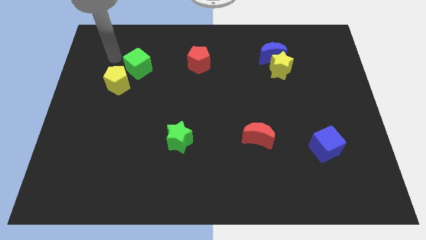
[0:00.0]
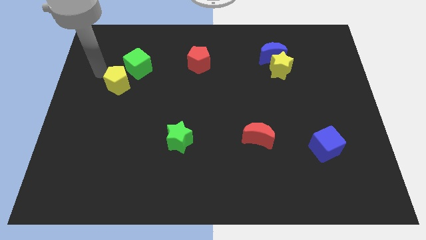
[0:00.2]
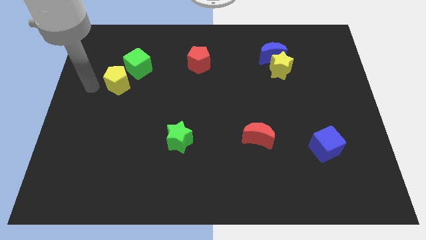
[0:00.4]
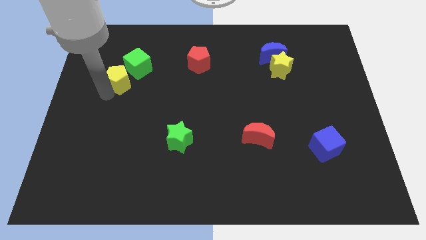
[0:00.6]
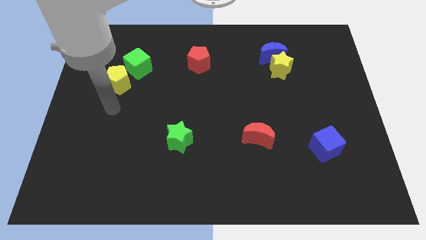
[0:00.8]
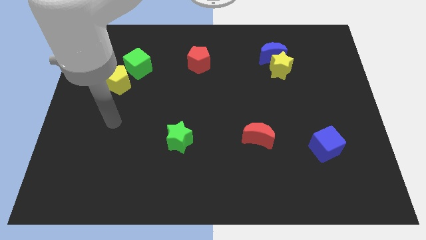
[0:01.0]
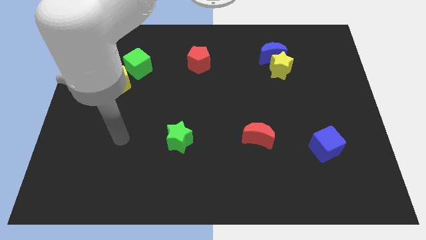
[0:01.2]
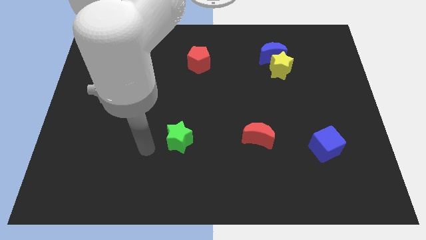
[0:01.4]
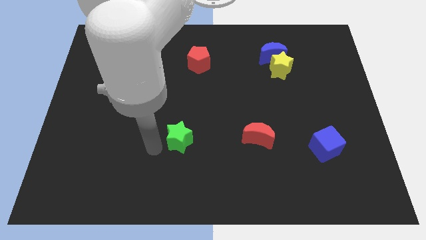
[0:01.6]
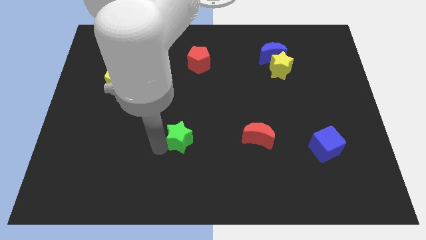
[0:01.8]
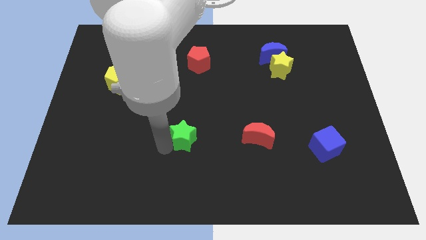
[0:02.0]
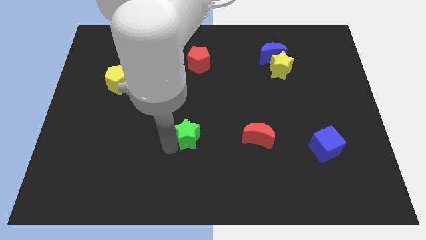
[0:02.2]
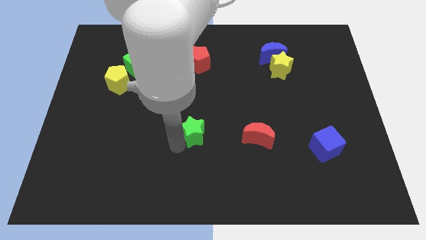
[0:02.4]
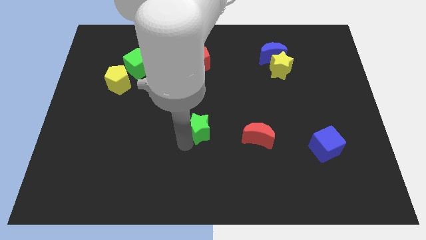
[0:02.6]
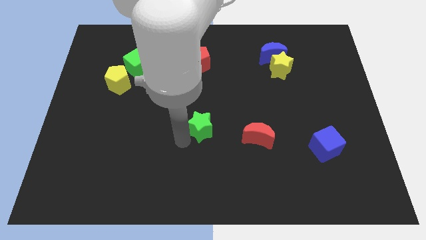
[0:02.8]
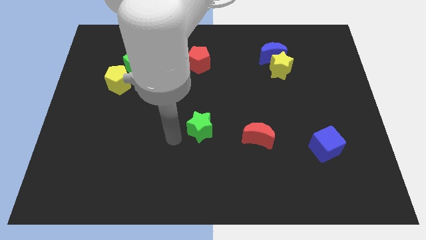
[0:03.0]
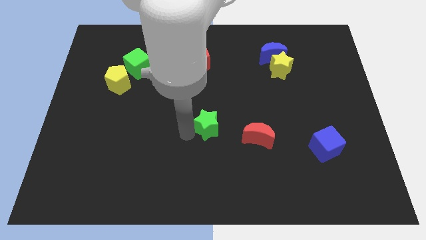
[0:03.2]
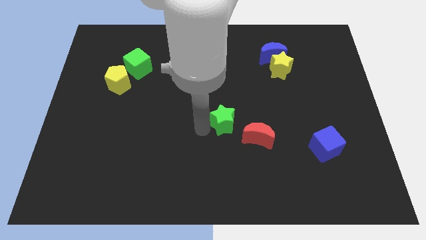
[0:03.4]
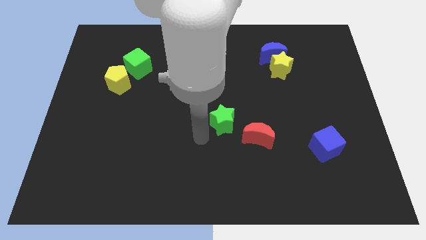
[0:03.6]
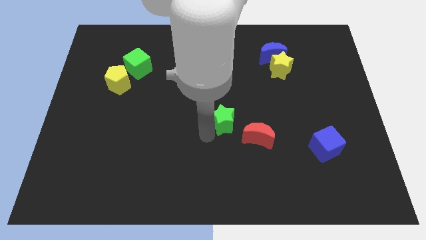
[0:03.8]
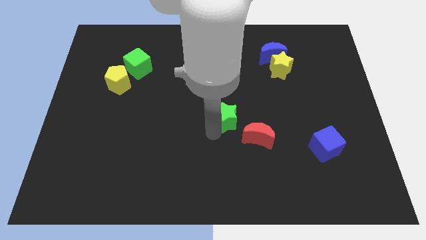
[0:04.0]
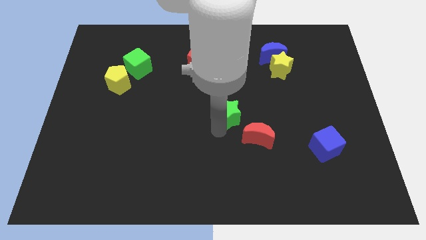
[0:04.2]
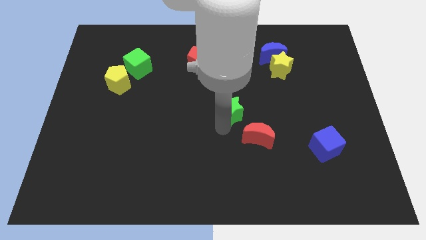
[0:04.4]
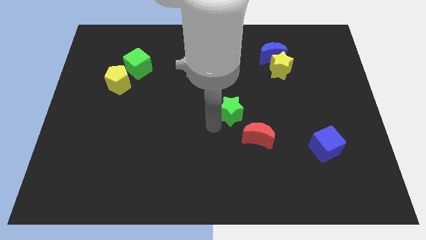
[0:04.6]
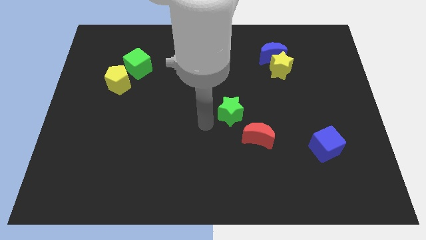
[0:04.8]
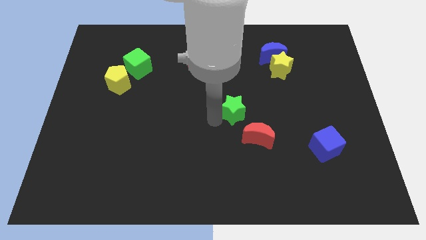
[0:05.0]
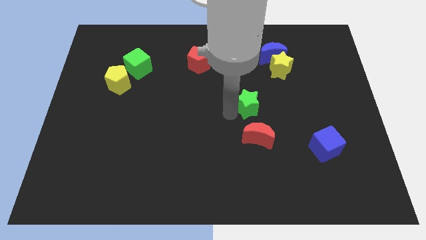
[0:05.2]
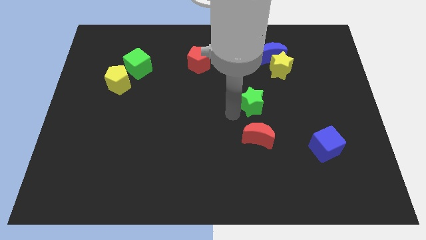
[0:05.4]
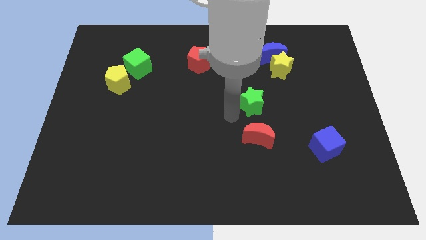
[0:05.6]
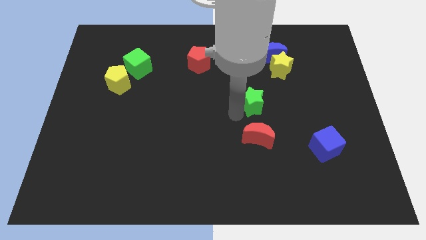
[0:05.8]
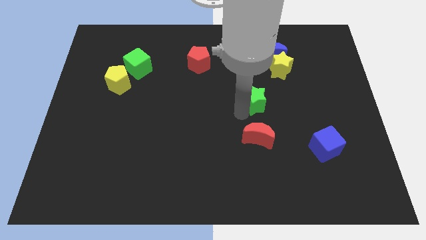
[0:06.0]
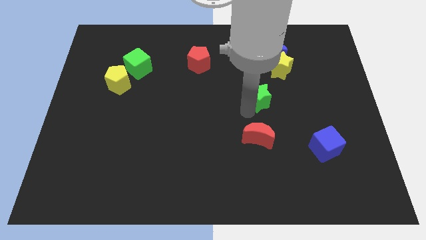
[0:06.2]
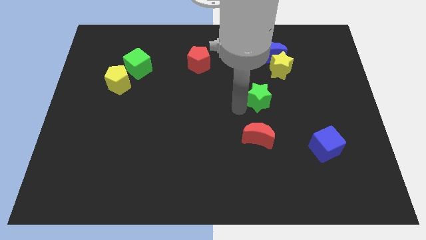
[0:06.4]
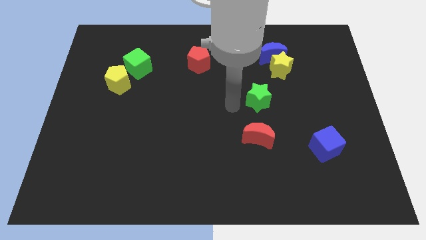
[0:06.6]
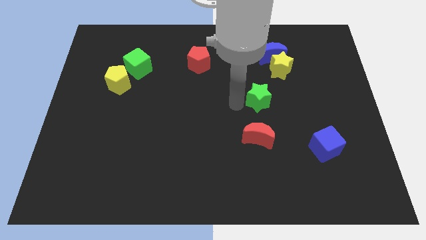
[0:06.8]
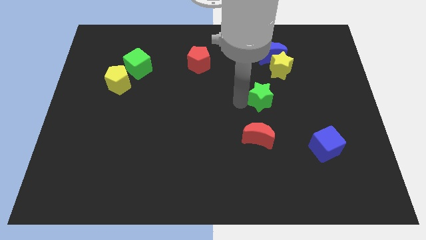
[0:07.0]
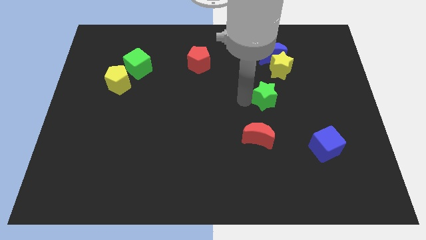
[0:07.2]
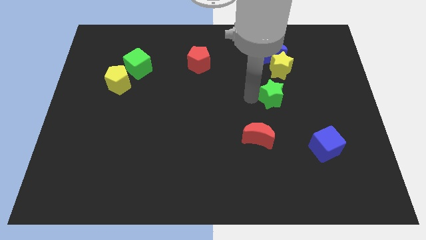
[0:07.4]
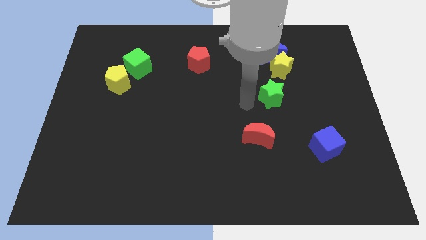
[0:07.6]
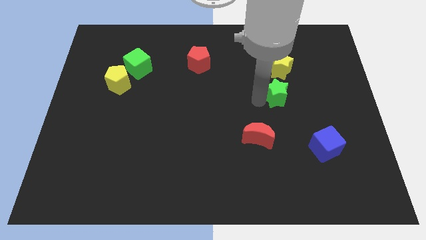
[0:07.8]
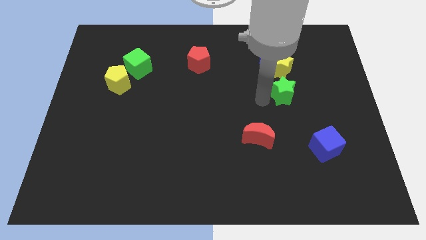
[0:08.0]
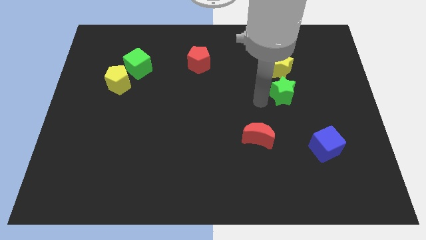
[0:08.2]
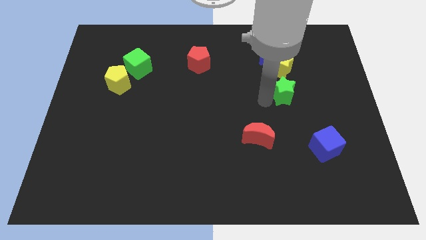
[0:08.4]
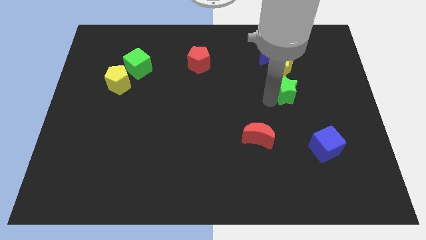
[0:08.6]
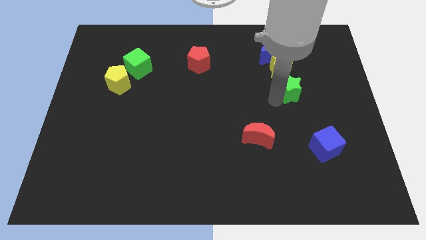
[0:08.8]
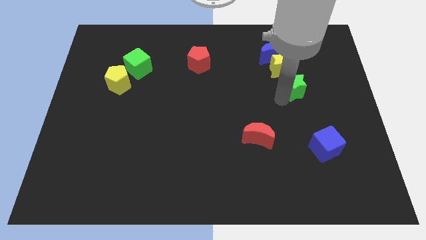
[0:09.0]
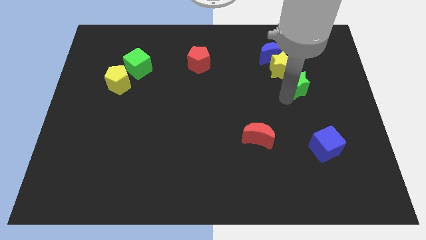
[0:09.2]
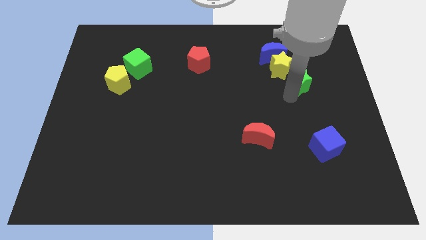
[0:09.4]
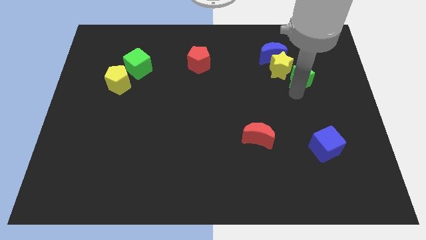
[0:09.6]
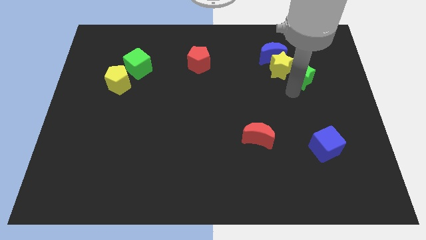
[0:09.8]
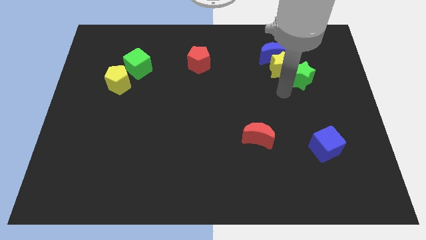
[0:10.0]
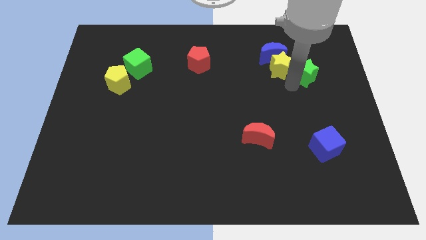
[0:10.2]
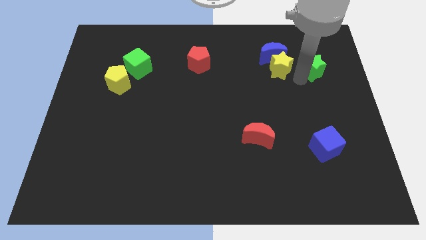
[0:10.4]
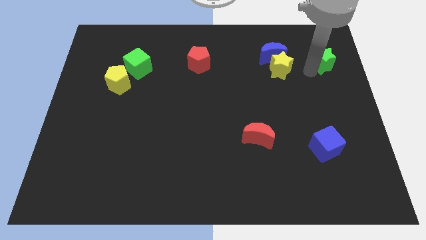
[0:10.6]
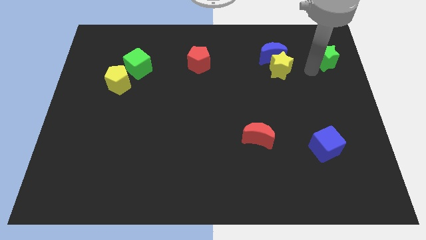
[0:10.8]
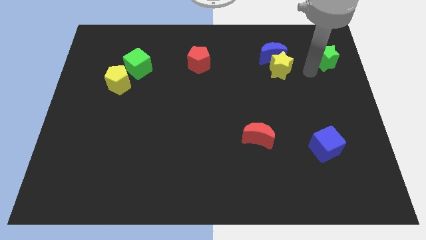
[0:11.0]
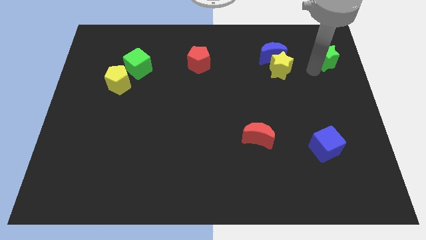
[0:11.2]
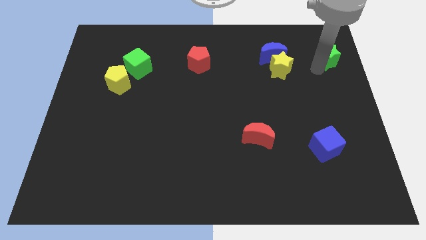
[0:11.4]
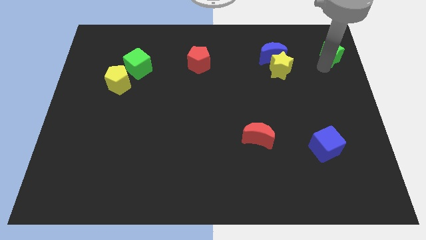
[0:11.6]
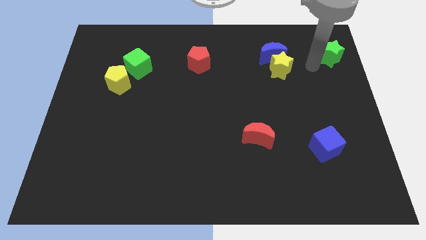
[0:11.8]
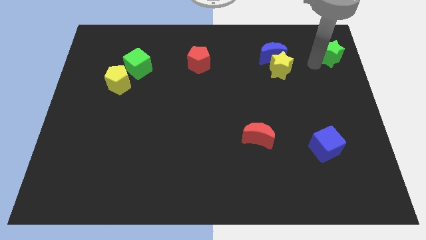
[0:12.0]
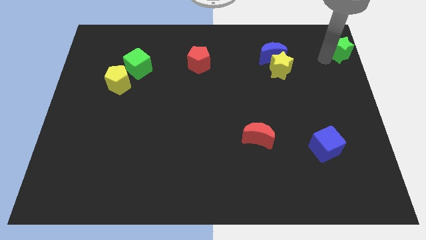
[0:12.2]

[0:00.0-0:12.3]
slide the green star to the top right corner
